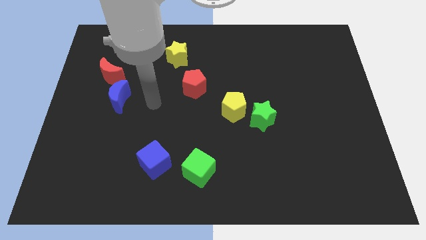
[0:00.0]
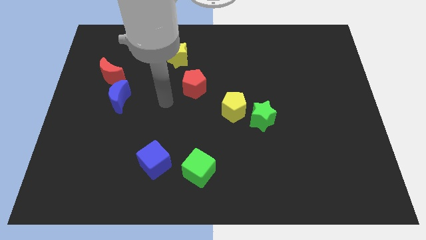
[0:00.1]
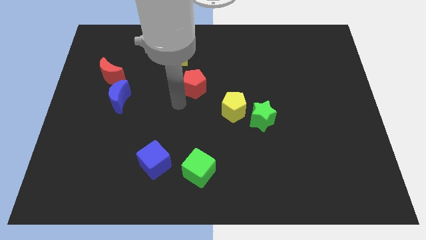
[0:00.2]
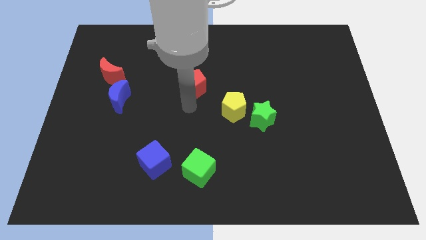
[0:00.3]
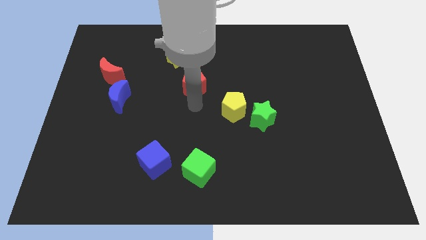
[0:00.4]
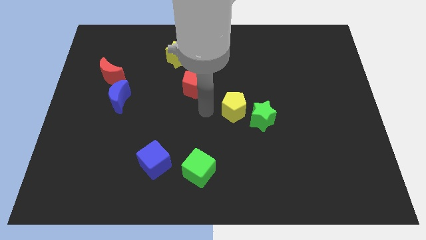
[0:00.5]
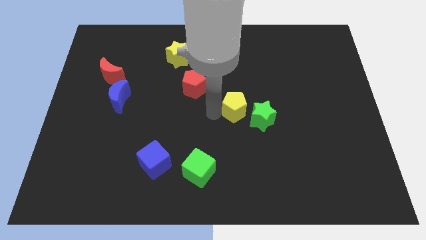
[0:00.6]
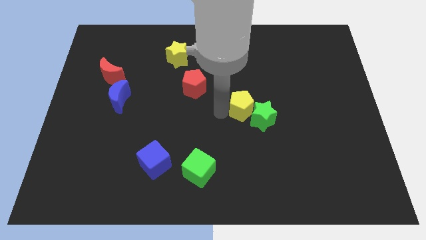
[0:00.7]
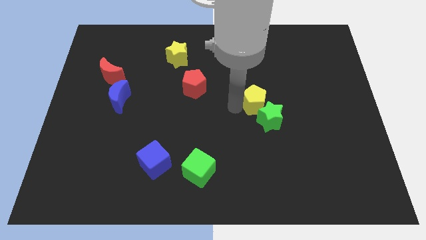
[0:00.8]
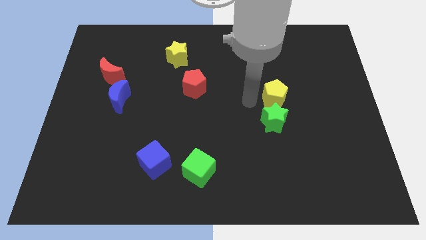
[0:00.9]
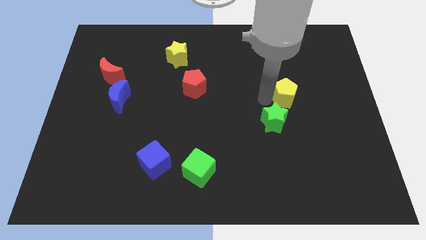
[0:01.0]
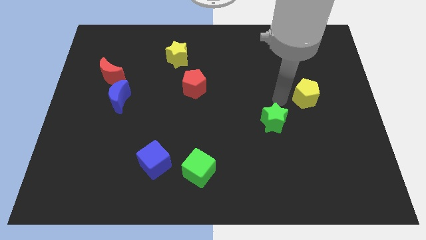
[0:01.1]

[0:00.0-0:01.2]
separate the green star from the yellow pentagon

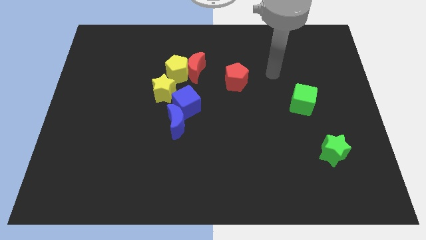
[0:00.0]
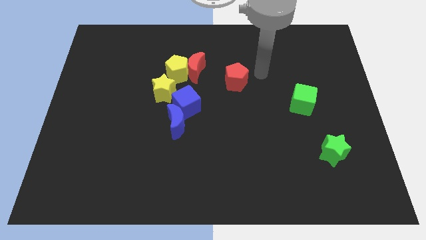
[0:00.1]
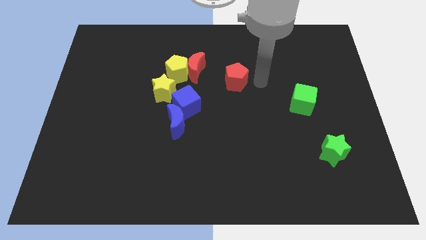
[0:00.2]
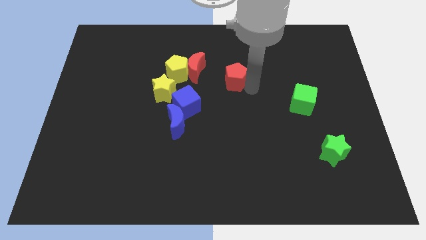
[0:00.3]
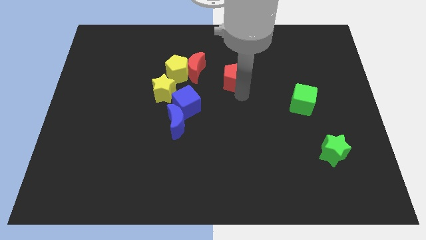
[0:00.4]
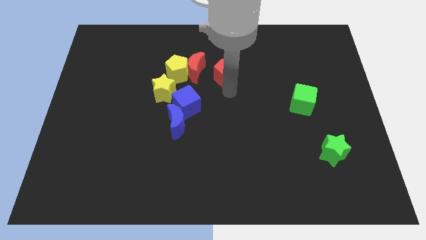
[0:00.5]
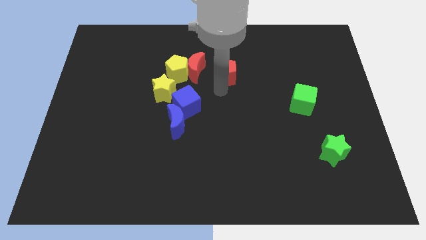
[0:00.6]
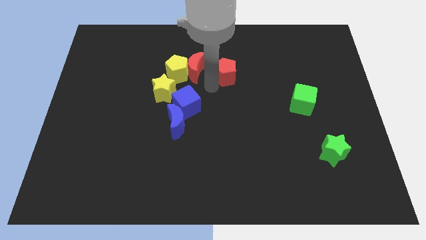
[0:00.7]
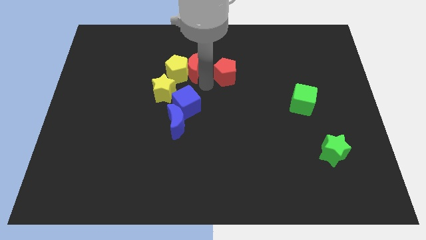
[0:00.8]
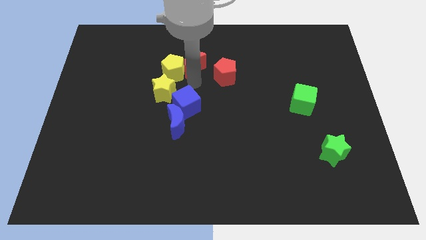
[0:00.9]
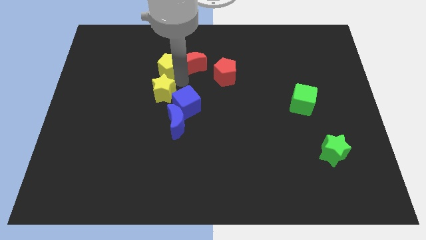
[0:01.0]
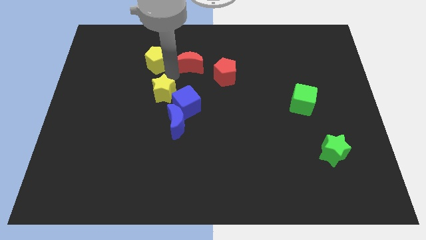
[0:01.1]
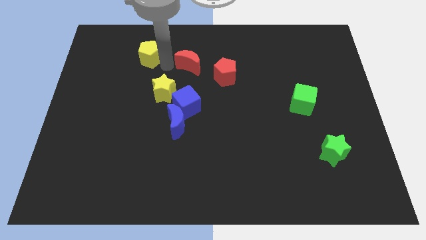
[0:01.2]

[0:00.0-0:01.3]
pull the red moon apart from the yellow pentagon

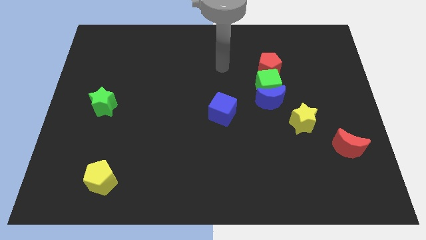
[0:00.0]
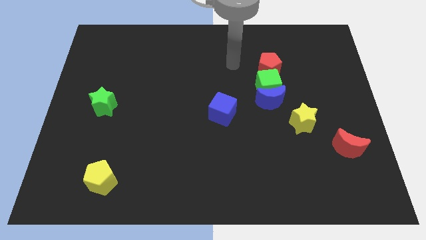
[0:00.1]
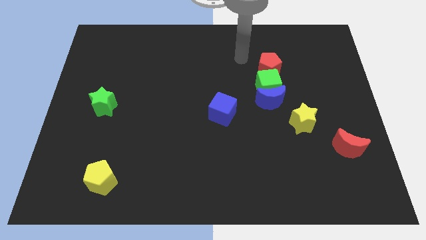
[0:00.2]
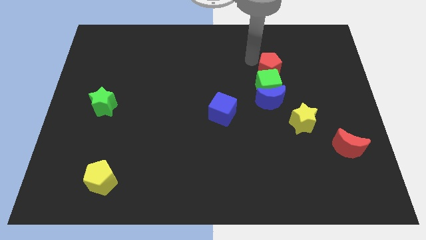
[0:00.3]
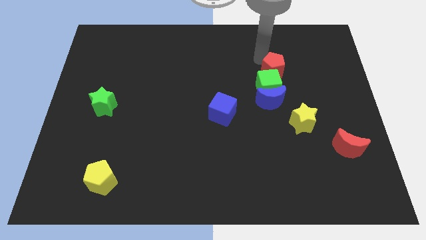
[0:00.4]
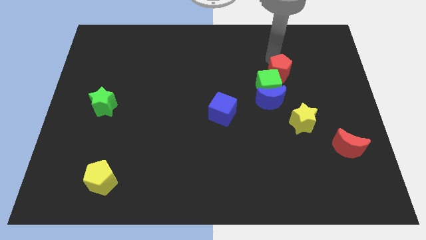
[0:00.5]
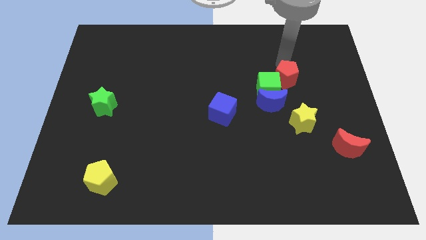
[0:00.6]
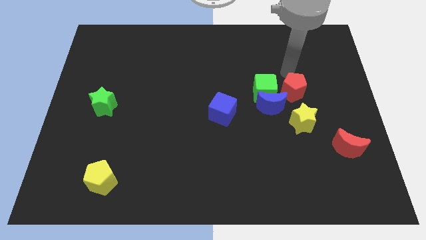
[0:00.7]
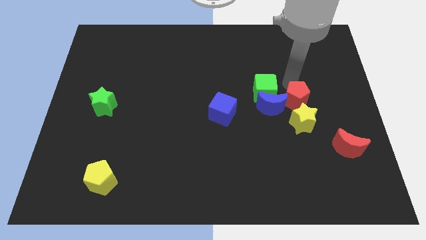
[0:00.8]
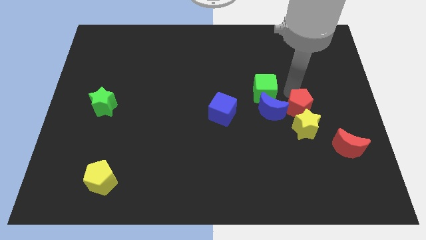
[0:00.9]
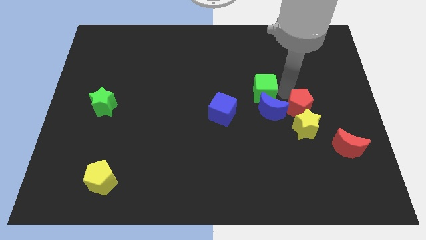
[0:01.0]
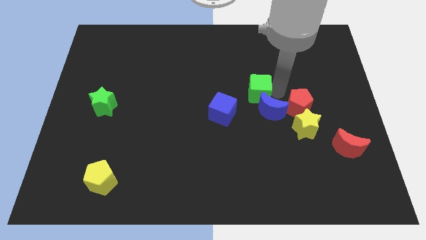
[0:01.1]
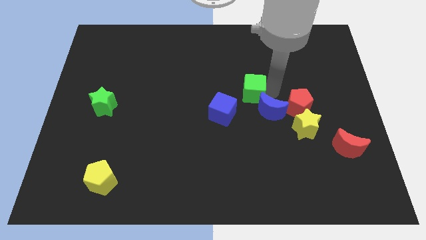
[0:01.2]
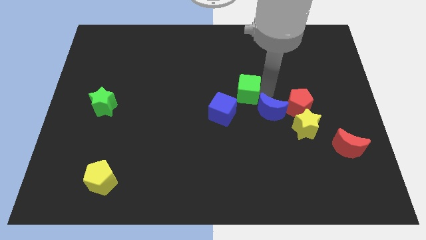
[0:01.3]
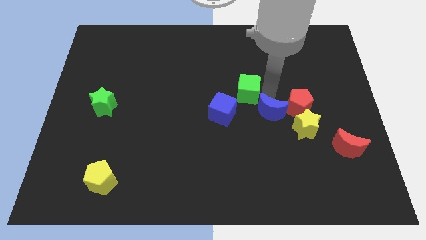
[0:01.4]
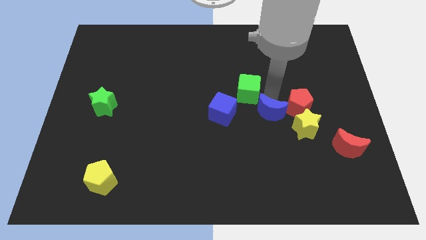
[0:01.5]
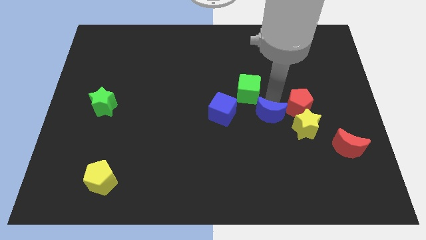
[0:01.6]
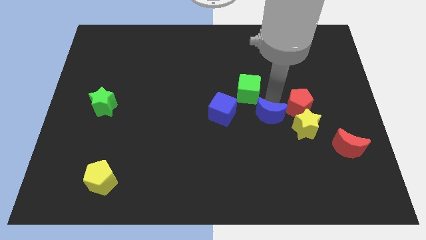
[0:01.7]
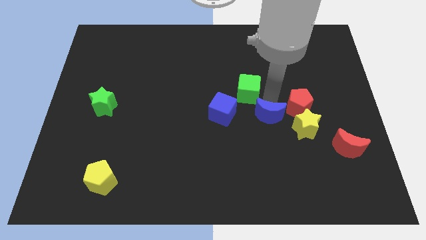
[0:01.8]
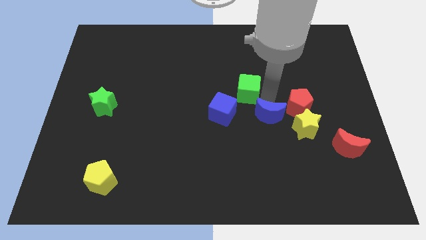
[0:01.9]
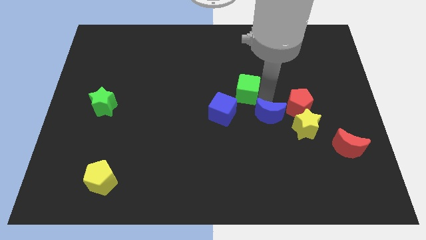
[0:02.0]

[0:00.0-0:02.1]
separate the green cube from the blue moon and red pentagon

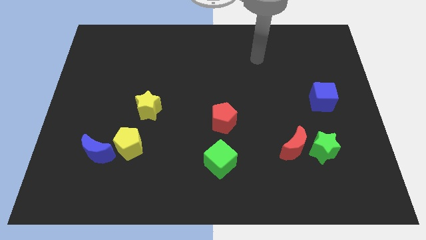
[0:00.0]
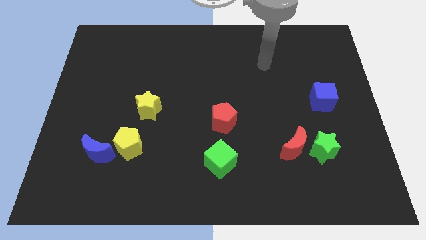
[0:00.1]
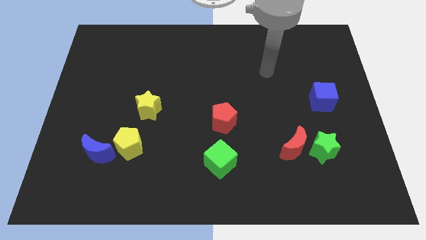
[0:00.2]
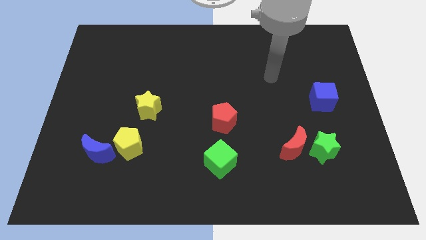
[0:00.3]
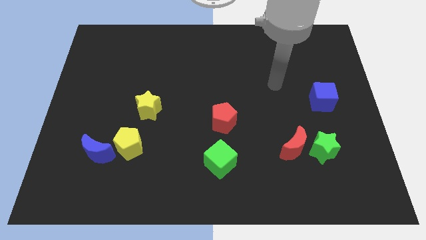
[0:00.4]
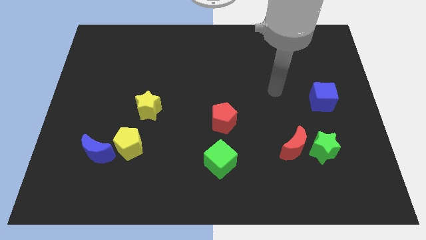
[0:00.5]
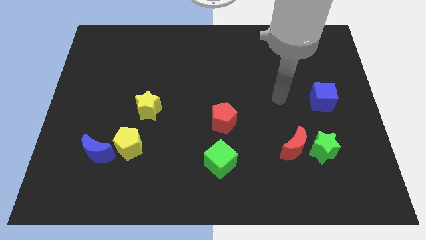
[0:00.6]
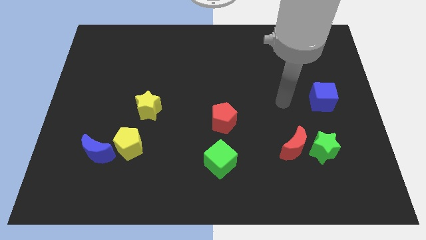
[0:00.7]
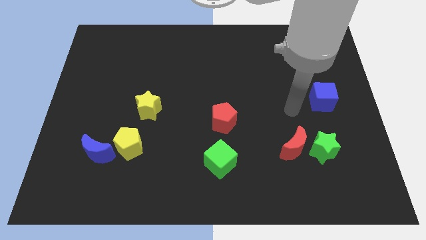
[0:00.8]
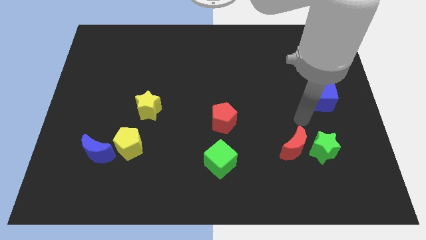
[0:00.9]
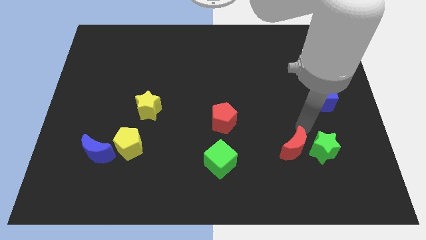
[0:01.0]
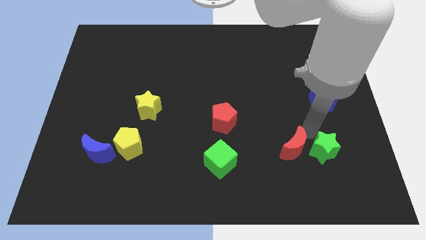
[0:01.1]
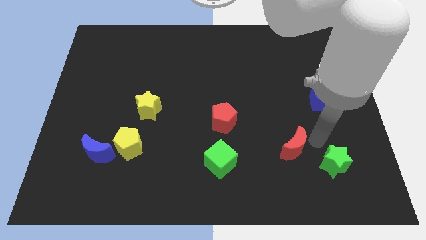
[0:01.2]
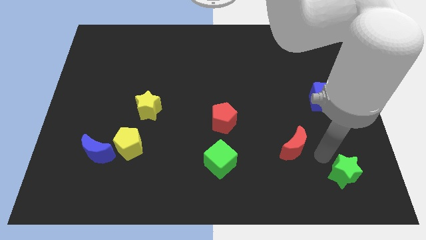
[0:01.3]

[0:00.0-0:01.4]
pull the red moon apart from the green star

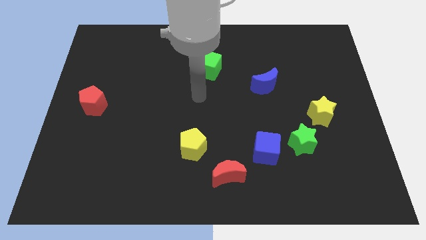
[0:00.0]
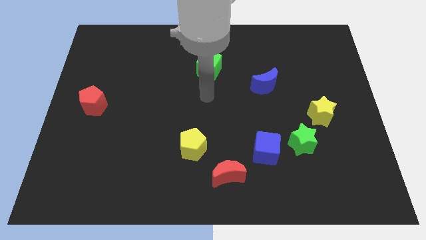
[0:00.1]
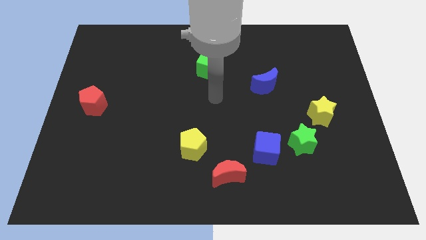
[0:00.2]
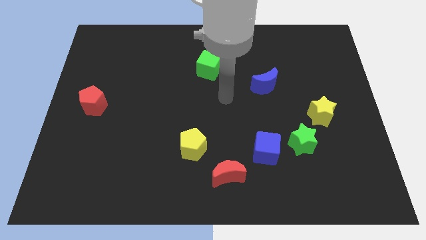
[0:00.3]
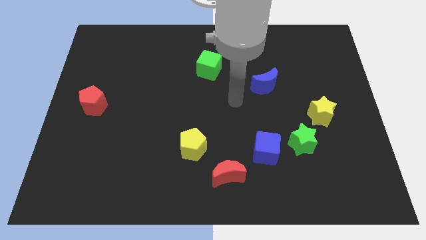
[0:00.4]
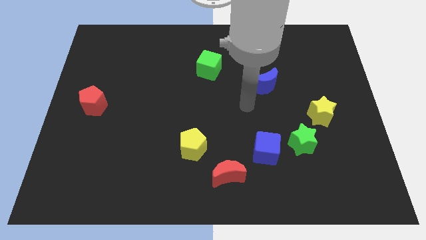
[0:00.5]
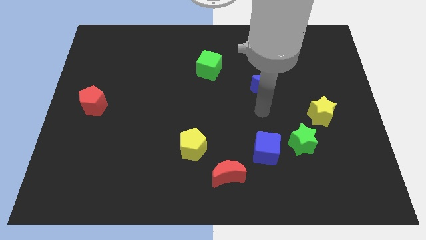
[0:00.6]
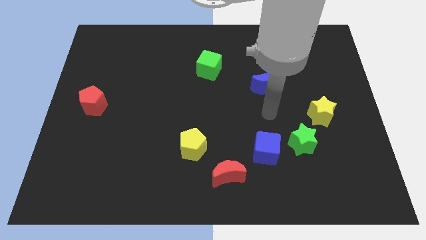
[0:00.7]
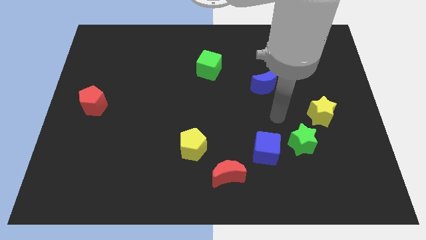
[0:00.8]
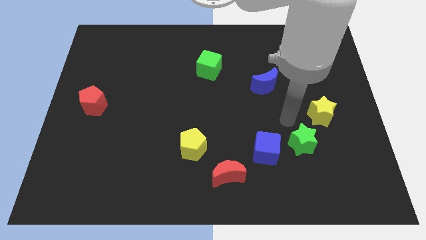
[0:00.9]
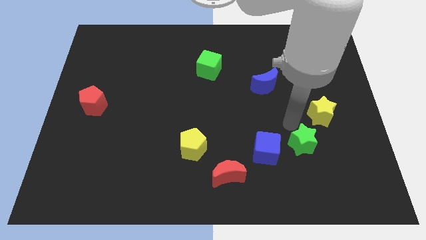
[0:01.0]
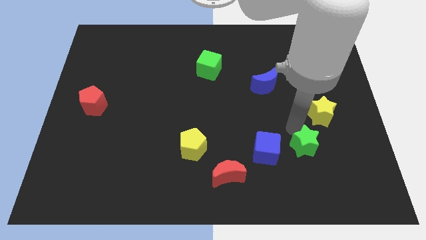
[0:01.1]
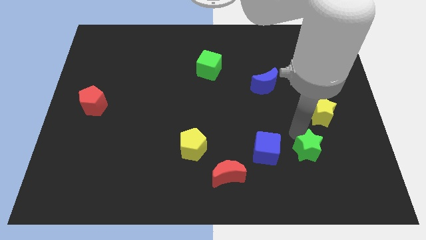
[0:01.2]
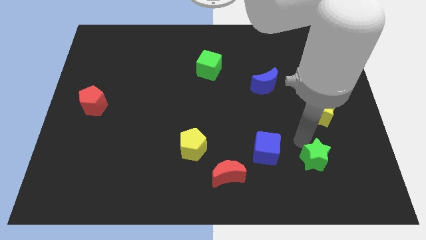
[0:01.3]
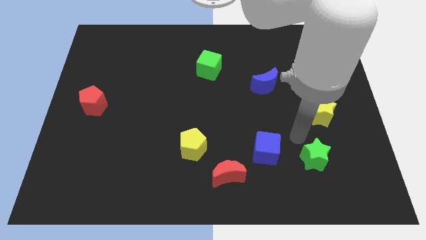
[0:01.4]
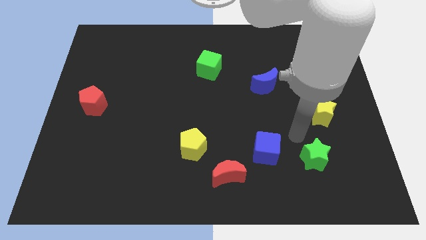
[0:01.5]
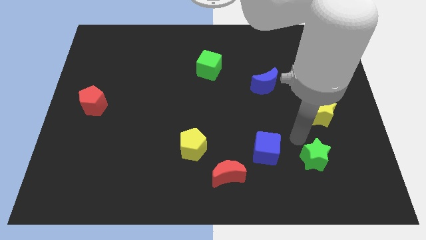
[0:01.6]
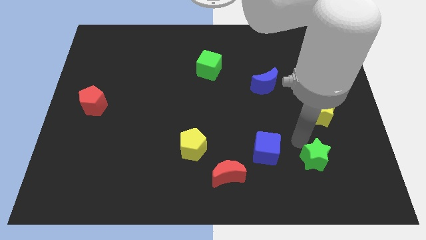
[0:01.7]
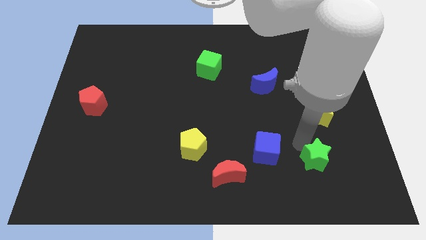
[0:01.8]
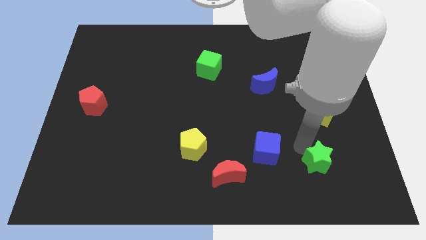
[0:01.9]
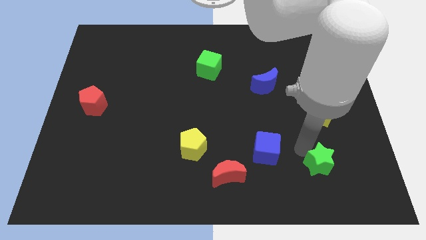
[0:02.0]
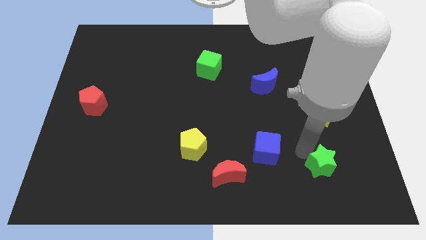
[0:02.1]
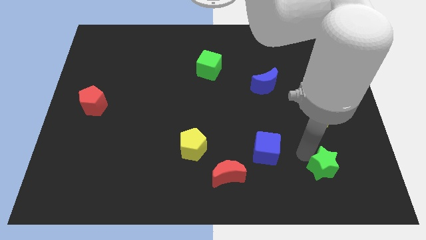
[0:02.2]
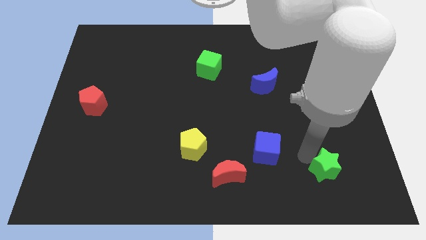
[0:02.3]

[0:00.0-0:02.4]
pull the green star apart from the blue cube and yellow star

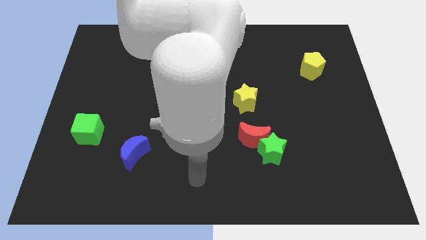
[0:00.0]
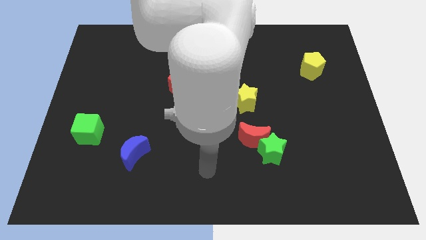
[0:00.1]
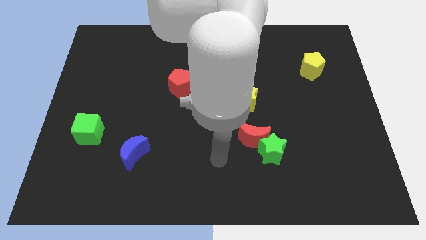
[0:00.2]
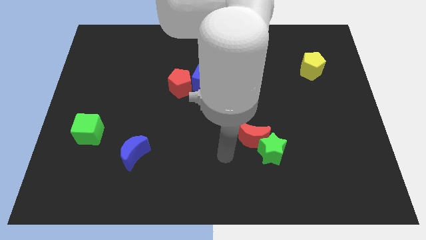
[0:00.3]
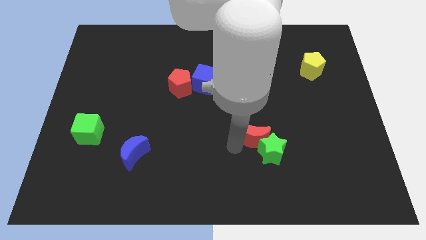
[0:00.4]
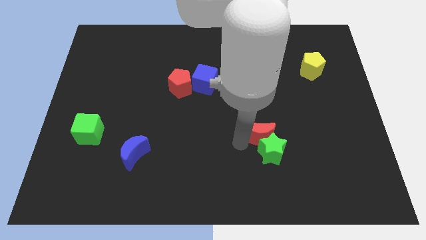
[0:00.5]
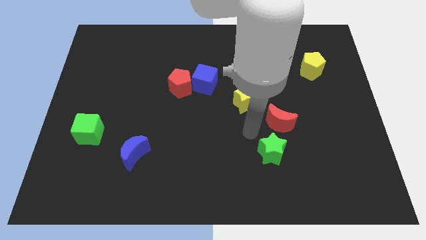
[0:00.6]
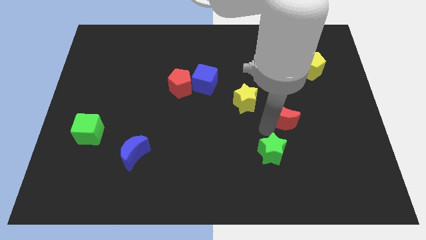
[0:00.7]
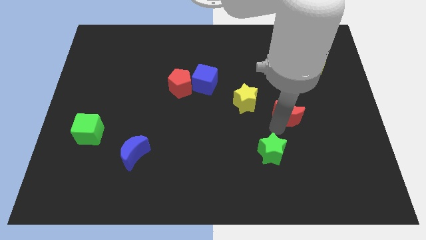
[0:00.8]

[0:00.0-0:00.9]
move the green star away from the red moon
